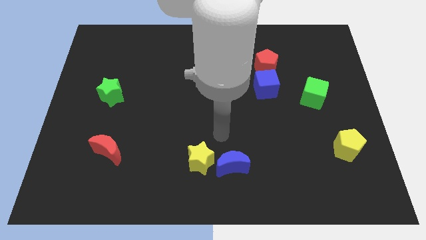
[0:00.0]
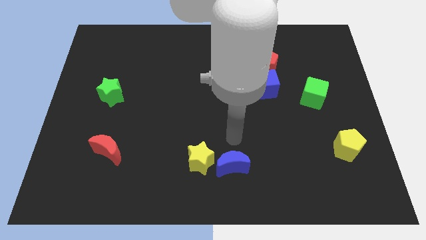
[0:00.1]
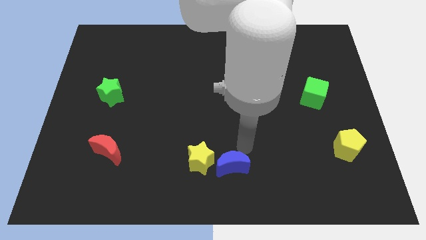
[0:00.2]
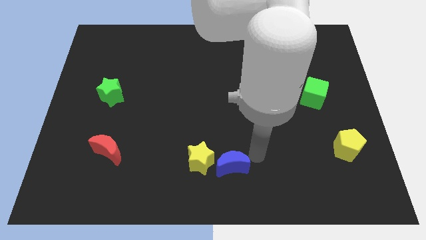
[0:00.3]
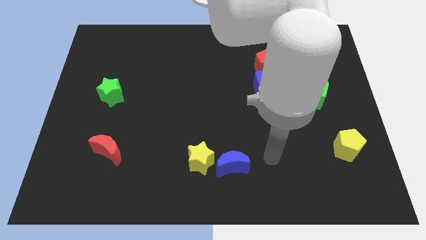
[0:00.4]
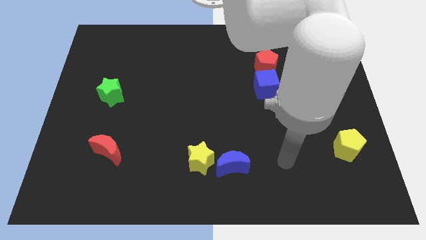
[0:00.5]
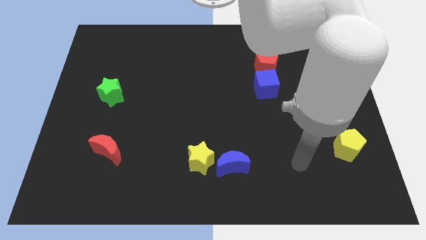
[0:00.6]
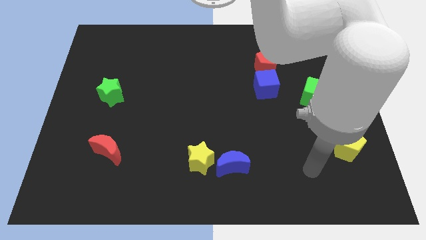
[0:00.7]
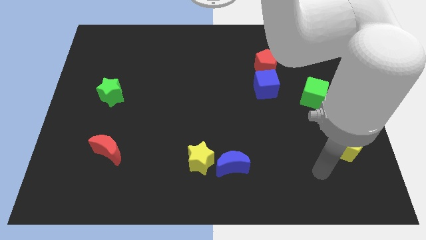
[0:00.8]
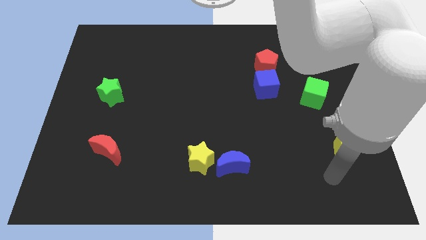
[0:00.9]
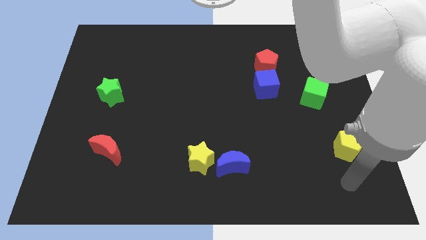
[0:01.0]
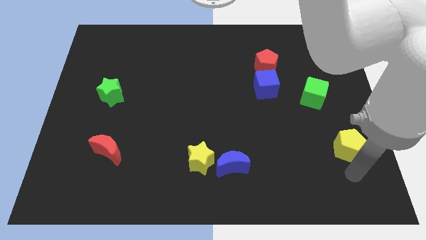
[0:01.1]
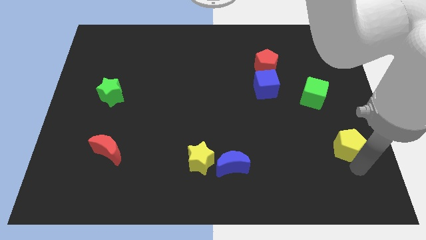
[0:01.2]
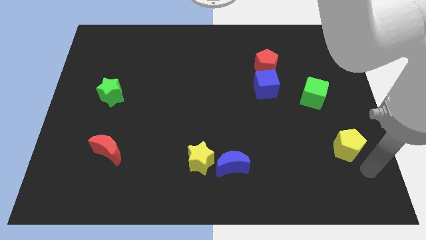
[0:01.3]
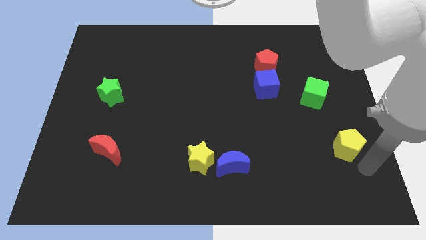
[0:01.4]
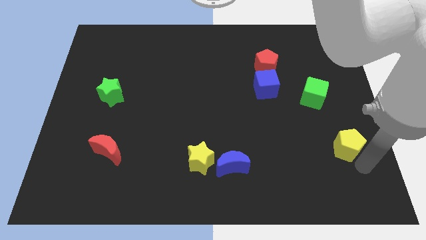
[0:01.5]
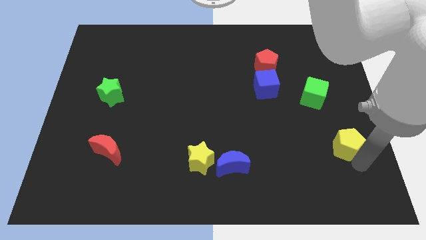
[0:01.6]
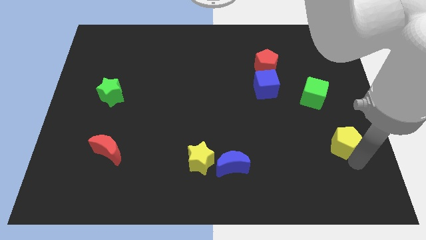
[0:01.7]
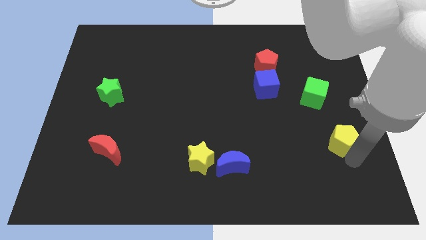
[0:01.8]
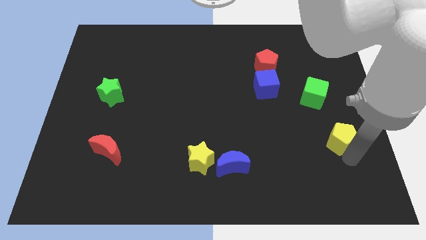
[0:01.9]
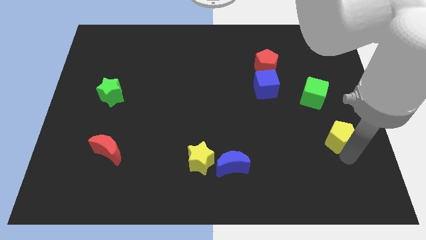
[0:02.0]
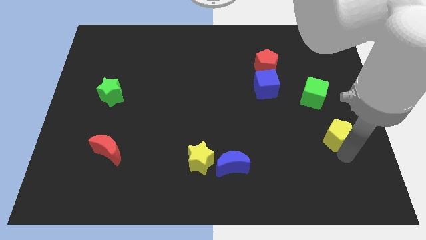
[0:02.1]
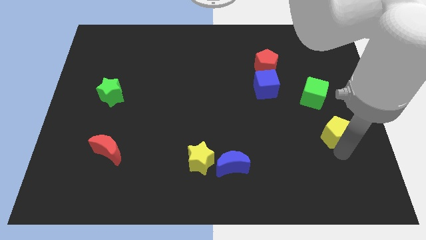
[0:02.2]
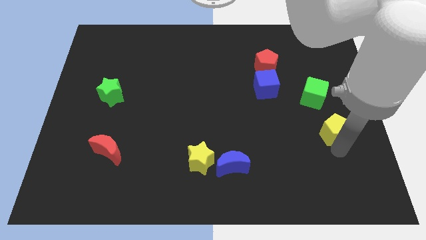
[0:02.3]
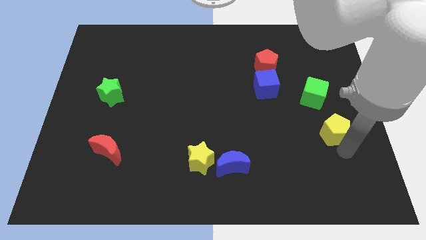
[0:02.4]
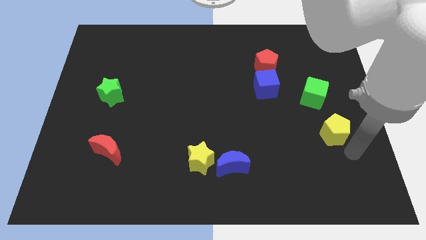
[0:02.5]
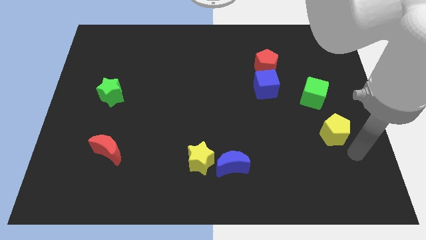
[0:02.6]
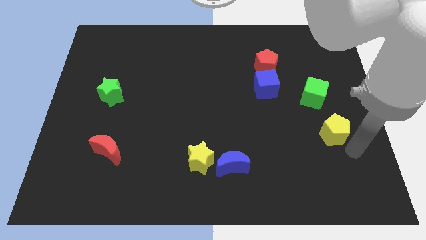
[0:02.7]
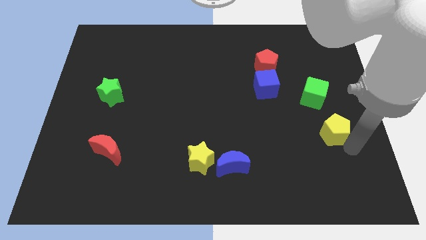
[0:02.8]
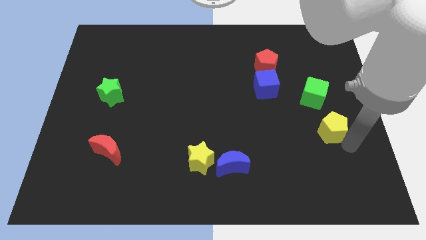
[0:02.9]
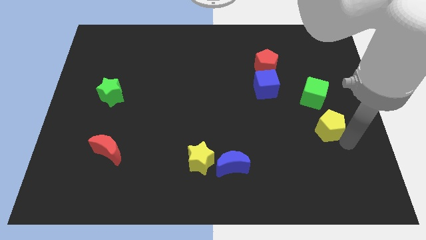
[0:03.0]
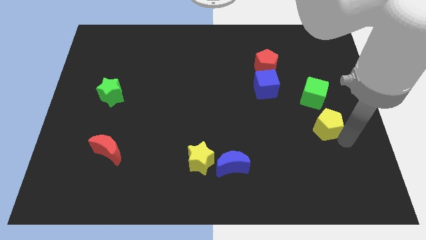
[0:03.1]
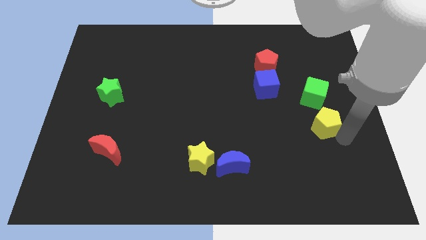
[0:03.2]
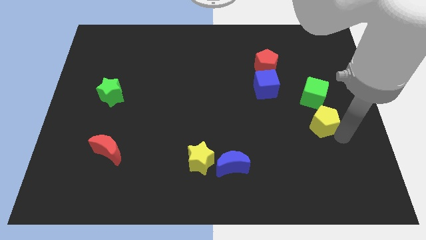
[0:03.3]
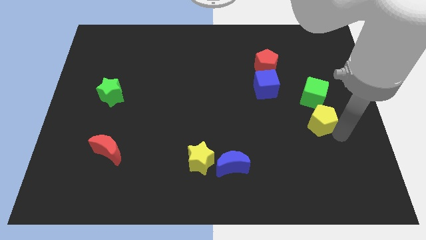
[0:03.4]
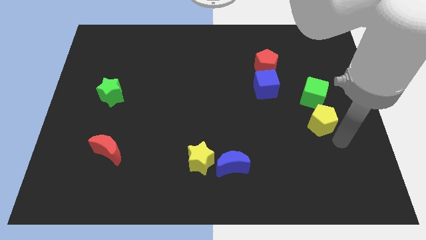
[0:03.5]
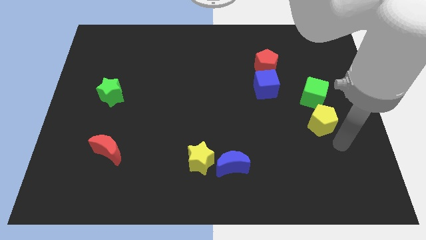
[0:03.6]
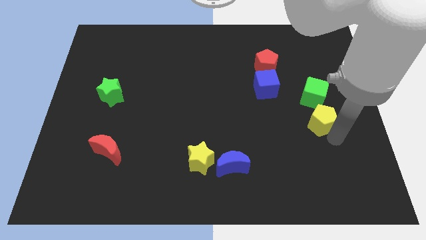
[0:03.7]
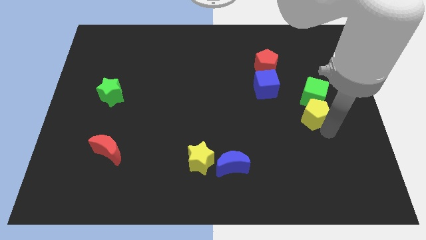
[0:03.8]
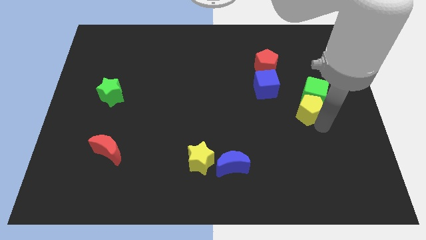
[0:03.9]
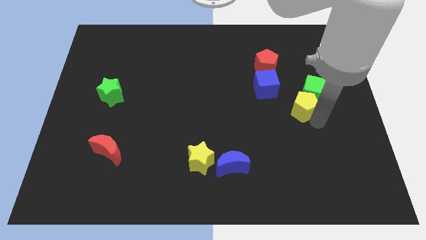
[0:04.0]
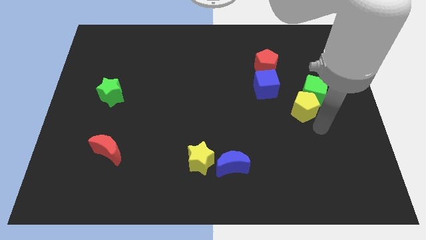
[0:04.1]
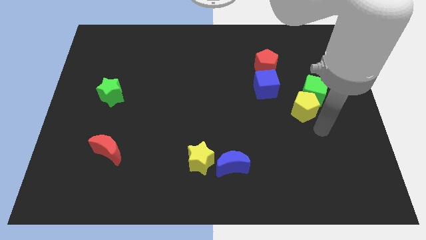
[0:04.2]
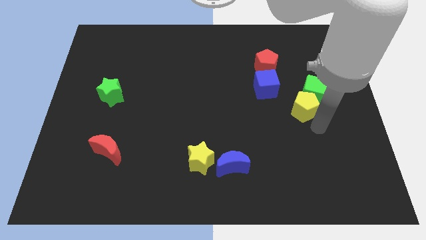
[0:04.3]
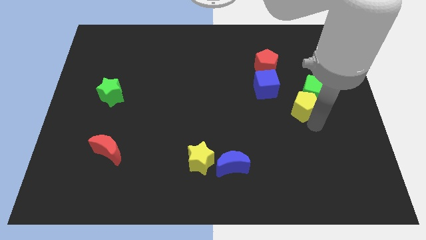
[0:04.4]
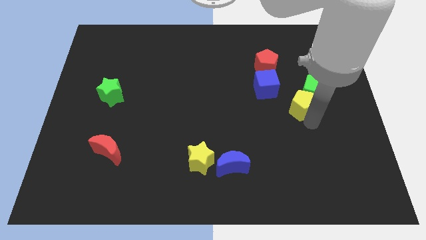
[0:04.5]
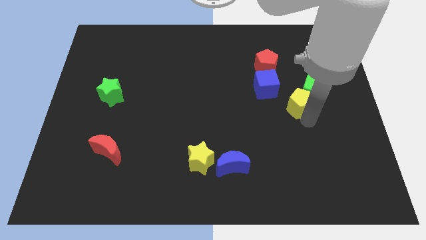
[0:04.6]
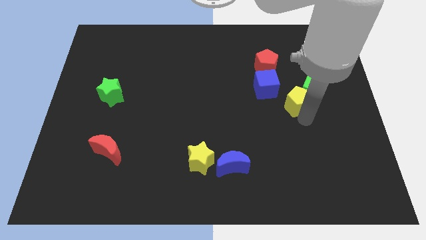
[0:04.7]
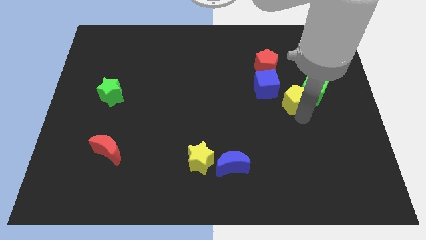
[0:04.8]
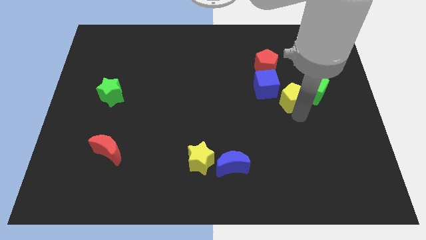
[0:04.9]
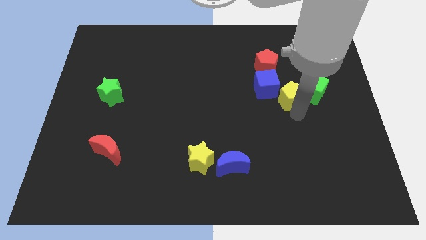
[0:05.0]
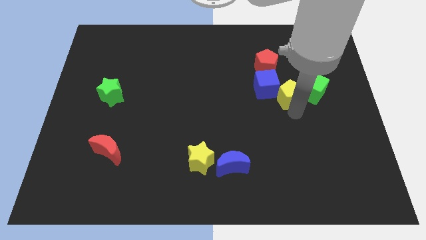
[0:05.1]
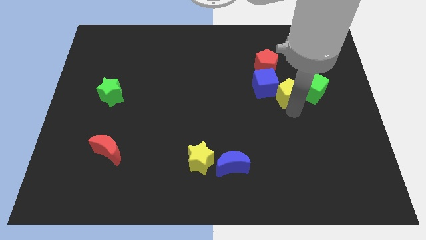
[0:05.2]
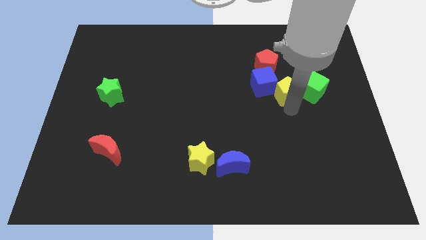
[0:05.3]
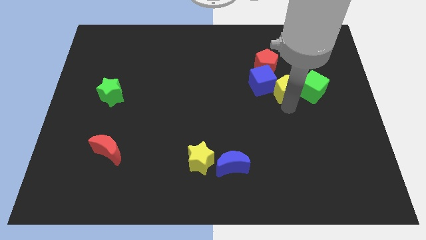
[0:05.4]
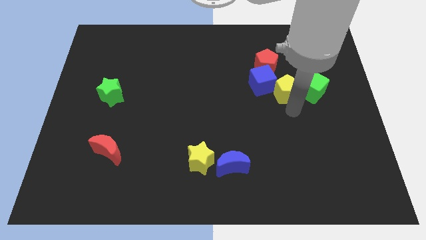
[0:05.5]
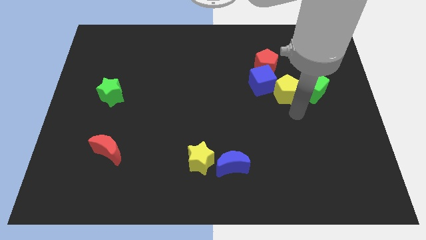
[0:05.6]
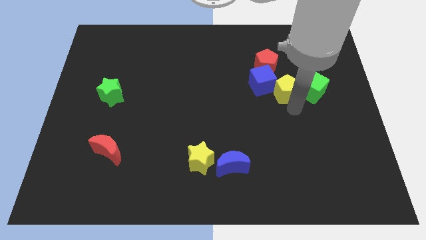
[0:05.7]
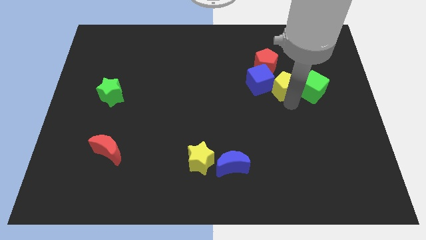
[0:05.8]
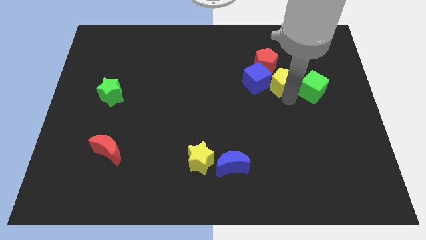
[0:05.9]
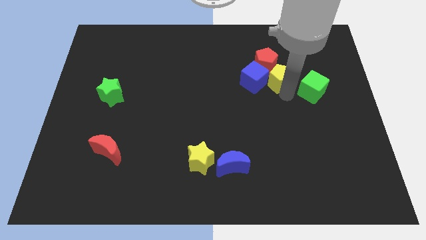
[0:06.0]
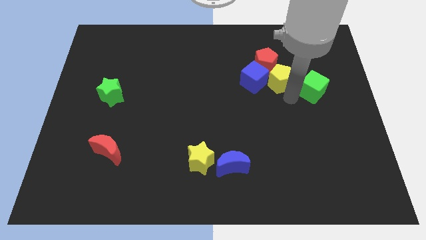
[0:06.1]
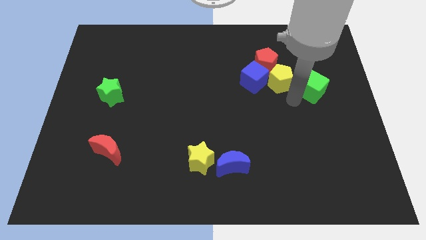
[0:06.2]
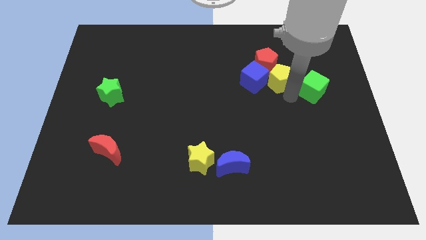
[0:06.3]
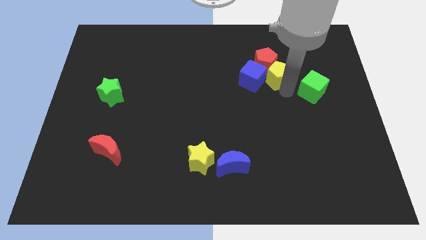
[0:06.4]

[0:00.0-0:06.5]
slide the yellow pentagon next to the red pentagon
